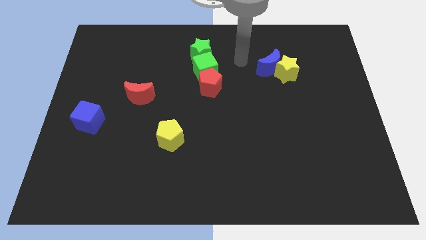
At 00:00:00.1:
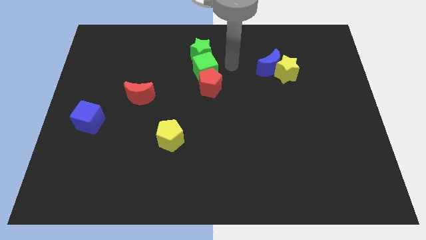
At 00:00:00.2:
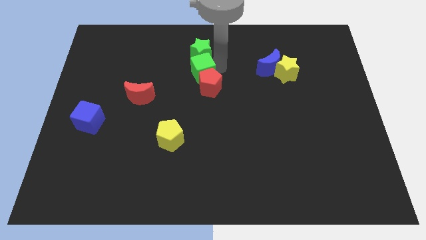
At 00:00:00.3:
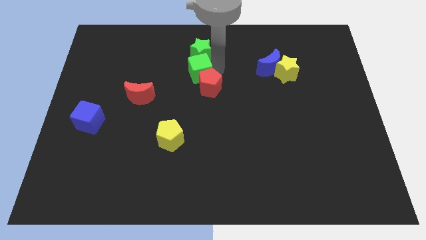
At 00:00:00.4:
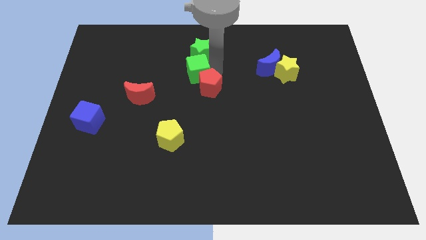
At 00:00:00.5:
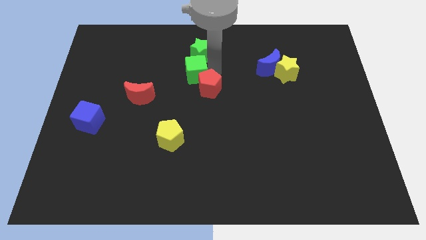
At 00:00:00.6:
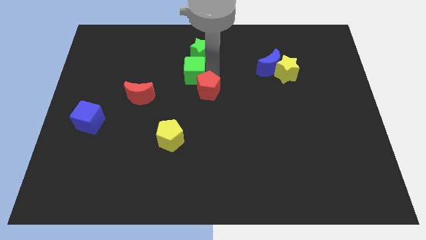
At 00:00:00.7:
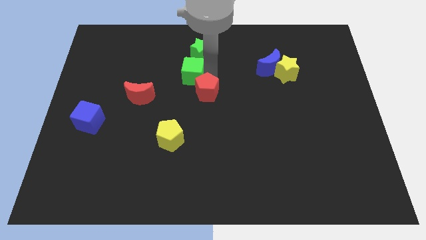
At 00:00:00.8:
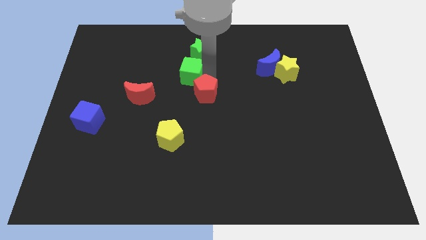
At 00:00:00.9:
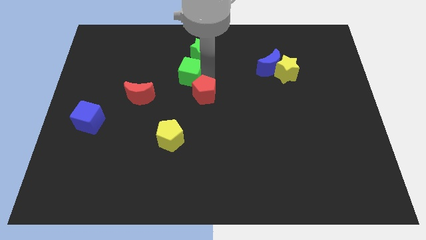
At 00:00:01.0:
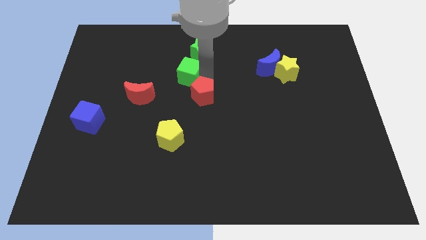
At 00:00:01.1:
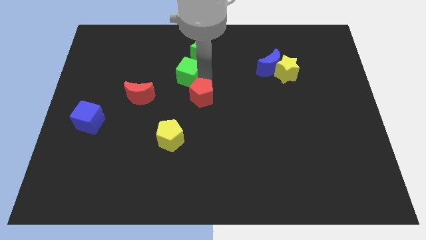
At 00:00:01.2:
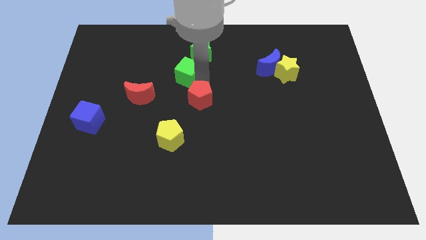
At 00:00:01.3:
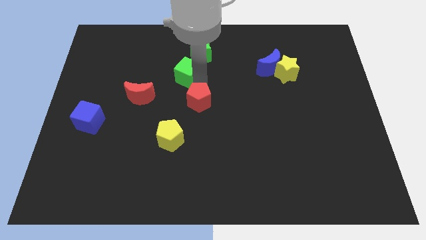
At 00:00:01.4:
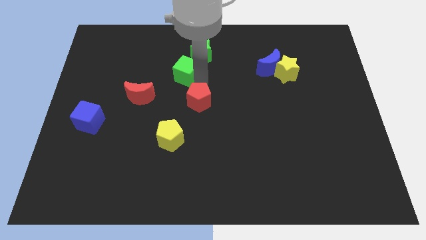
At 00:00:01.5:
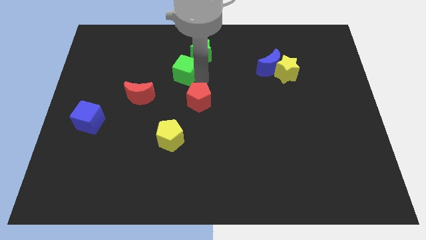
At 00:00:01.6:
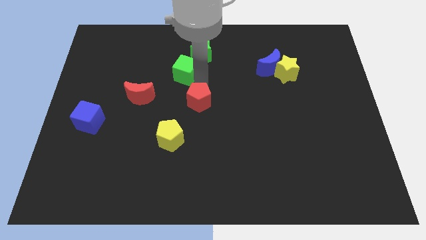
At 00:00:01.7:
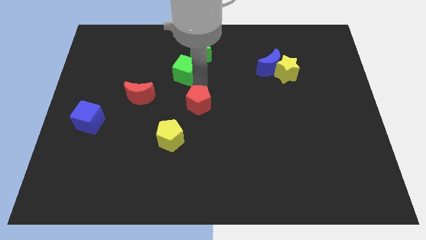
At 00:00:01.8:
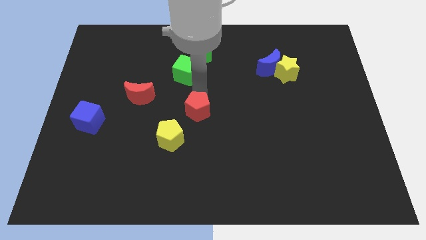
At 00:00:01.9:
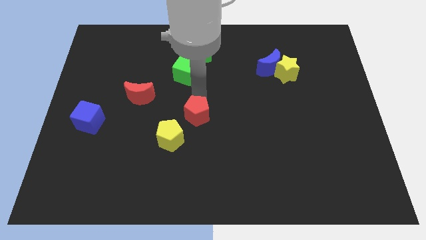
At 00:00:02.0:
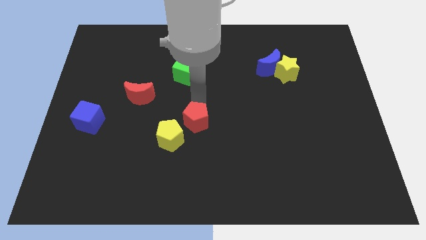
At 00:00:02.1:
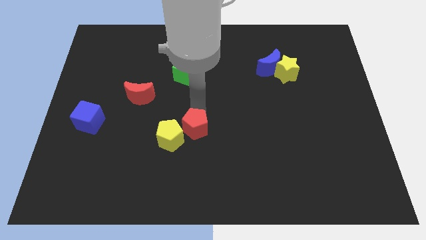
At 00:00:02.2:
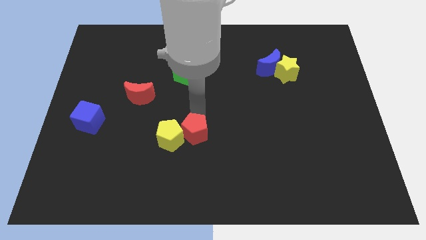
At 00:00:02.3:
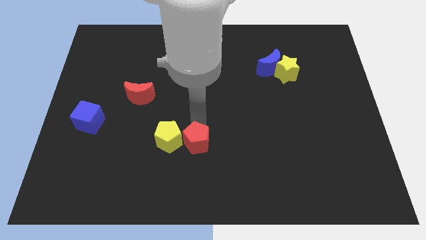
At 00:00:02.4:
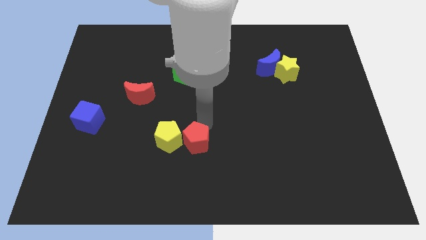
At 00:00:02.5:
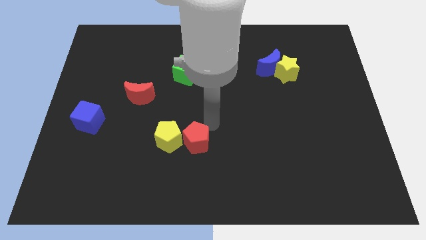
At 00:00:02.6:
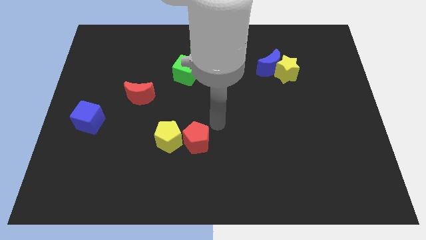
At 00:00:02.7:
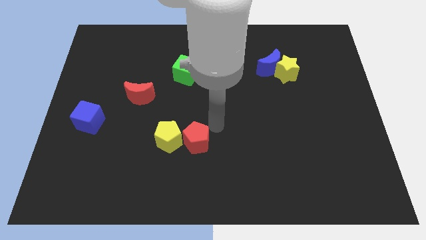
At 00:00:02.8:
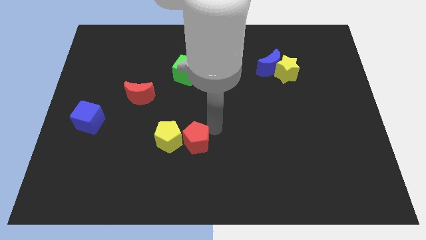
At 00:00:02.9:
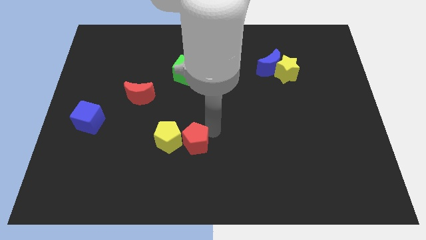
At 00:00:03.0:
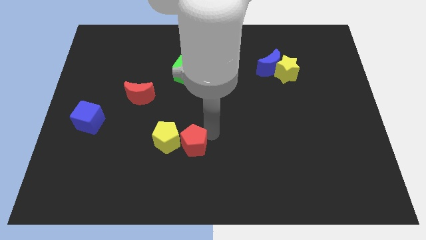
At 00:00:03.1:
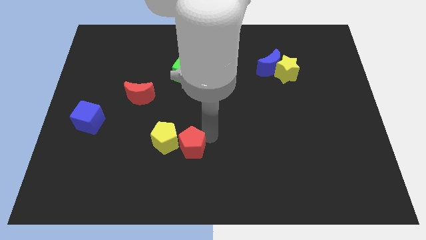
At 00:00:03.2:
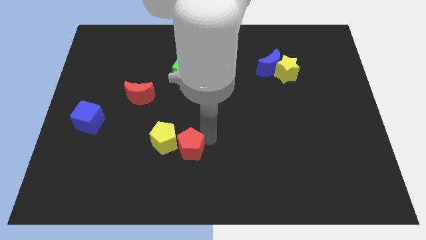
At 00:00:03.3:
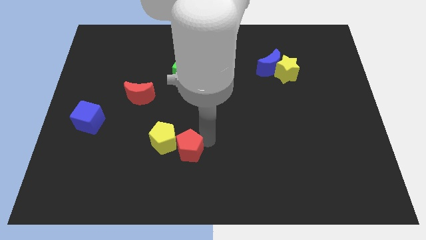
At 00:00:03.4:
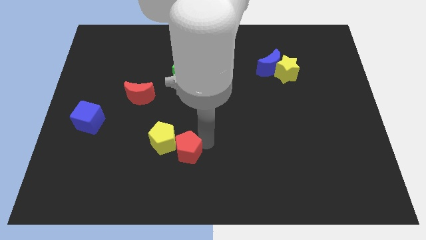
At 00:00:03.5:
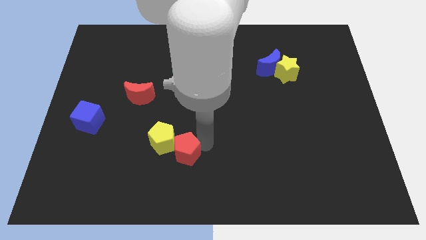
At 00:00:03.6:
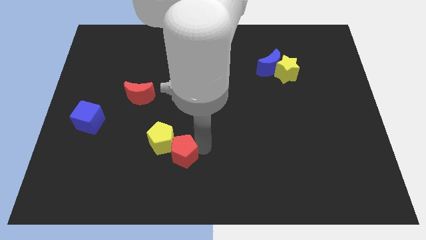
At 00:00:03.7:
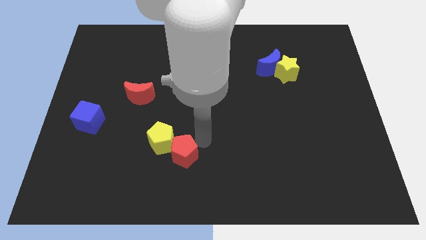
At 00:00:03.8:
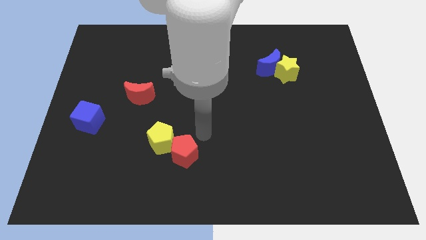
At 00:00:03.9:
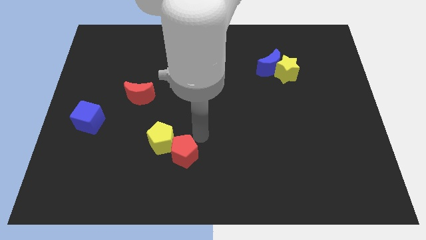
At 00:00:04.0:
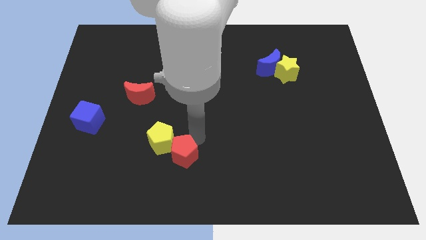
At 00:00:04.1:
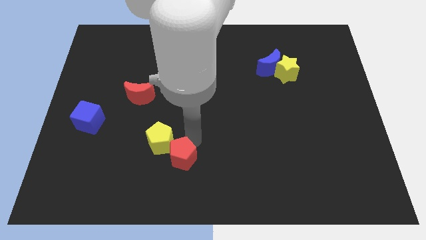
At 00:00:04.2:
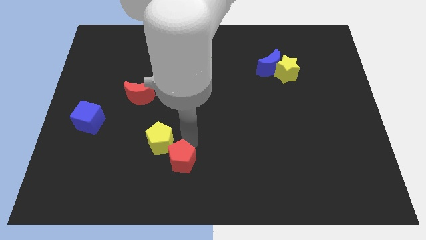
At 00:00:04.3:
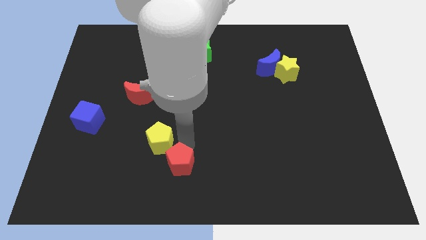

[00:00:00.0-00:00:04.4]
put the red pentagon to the bottom of the yellow pentagon

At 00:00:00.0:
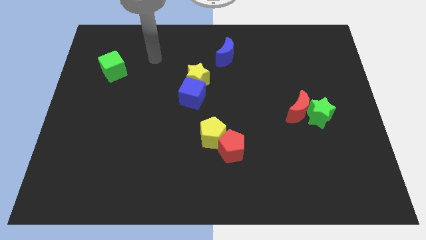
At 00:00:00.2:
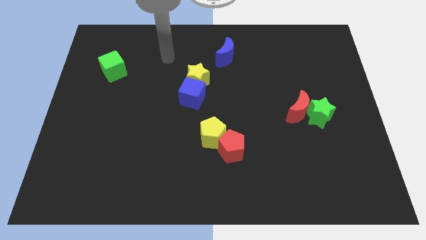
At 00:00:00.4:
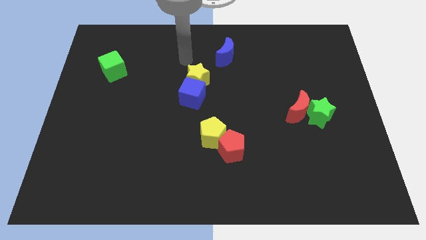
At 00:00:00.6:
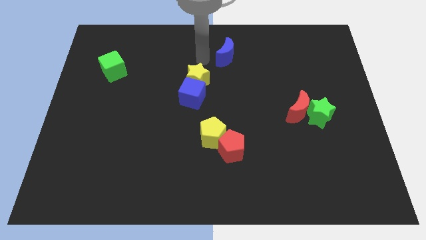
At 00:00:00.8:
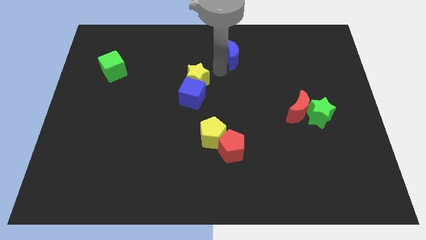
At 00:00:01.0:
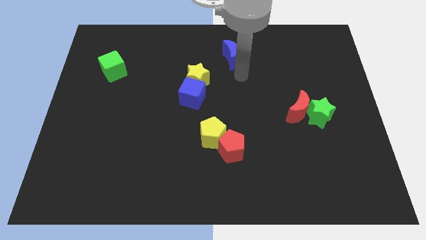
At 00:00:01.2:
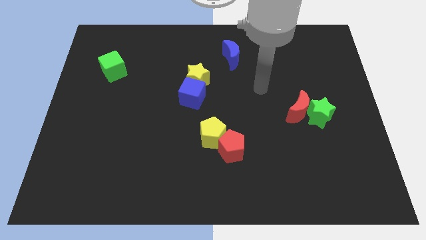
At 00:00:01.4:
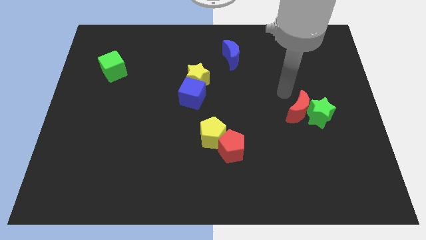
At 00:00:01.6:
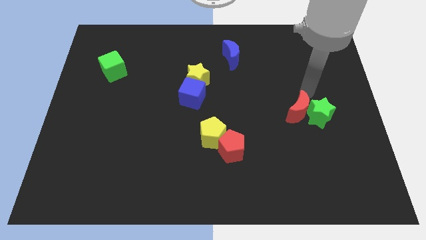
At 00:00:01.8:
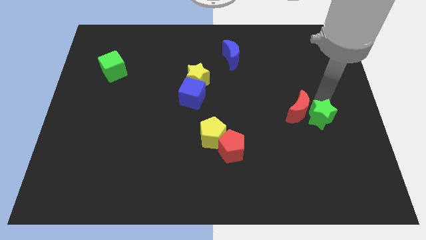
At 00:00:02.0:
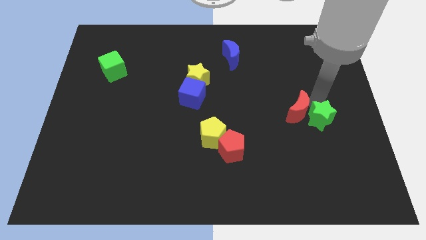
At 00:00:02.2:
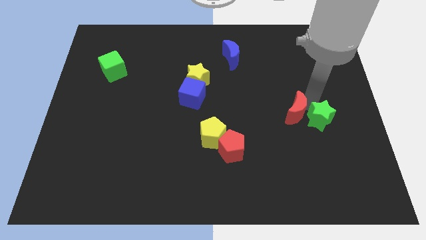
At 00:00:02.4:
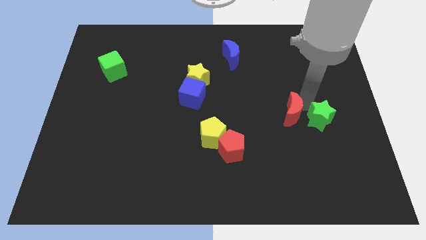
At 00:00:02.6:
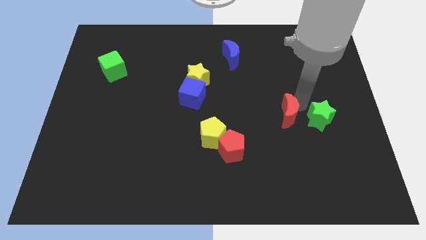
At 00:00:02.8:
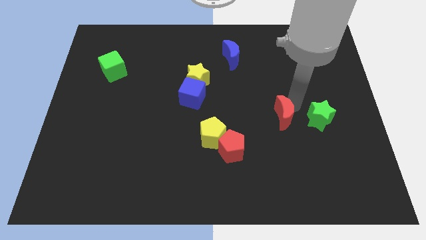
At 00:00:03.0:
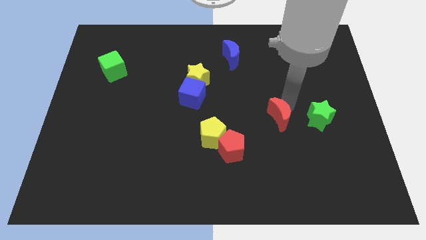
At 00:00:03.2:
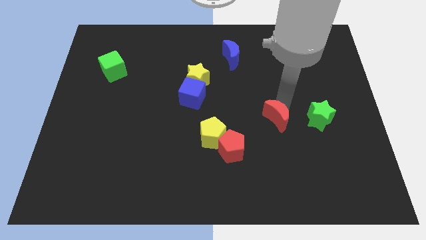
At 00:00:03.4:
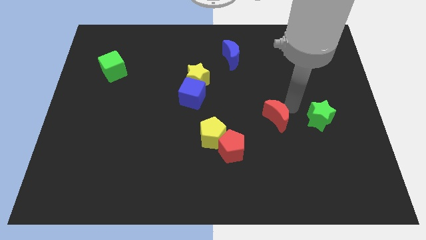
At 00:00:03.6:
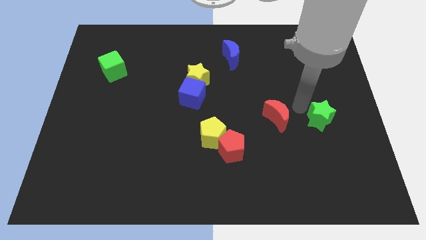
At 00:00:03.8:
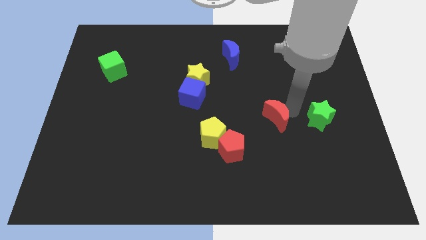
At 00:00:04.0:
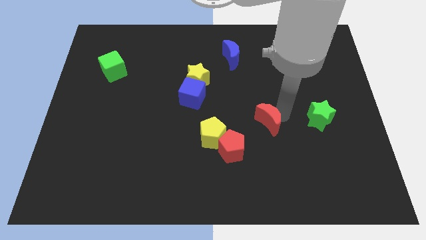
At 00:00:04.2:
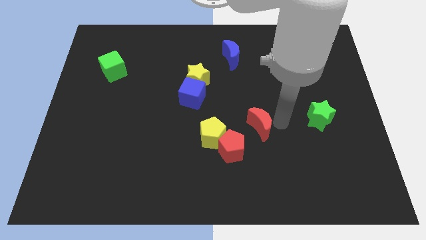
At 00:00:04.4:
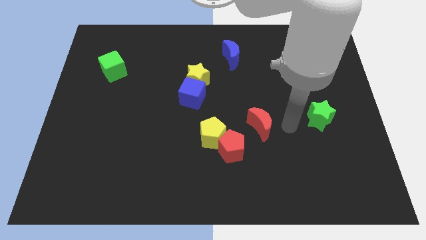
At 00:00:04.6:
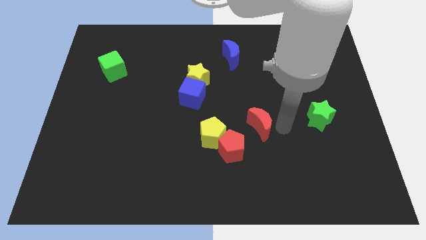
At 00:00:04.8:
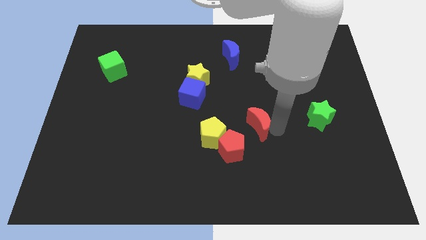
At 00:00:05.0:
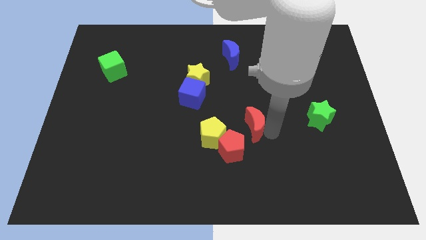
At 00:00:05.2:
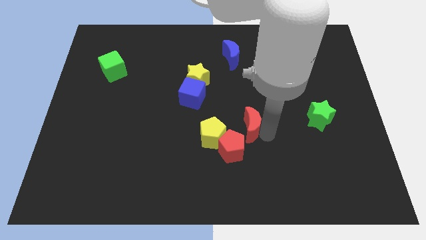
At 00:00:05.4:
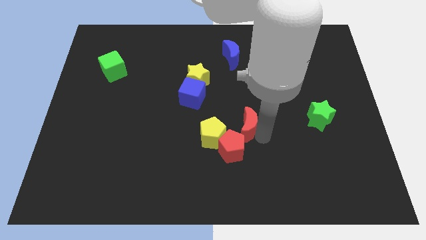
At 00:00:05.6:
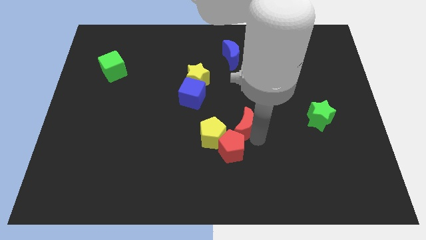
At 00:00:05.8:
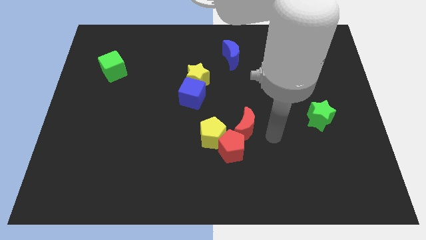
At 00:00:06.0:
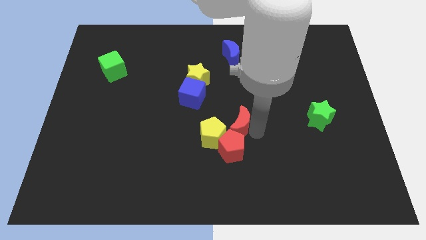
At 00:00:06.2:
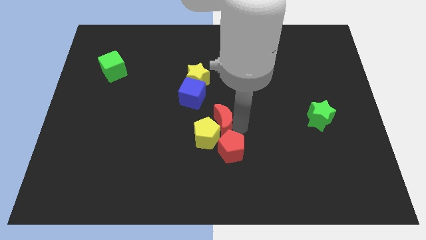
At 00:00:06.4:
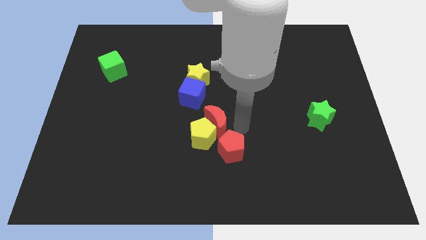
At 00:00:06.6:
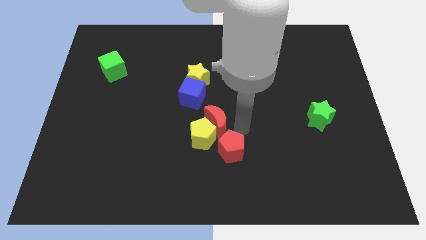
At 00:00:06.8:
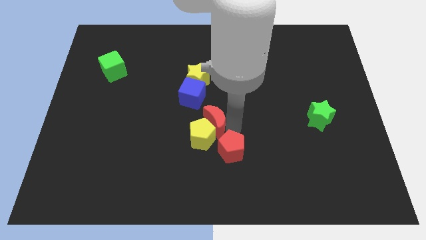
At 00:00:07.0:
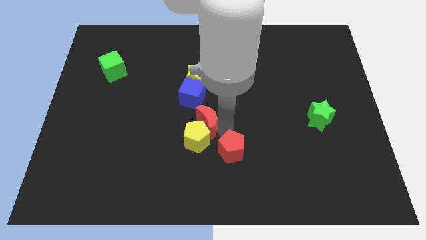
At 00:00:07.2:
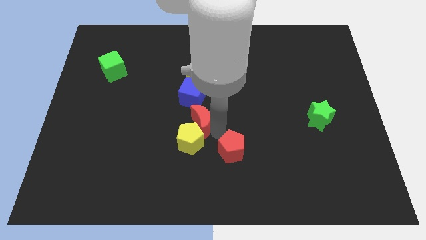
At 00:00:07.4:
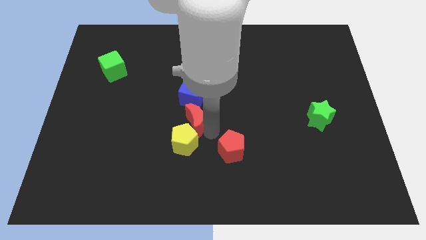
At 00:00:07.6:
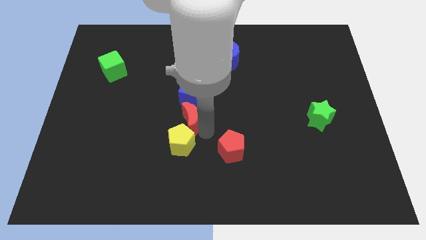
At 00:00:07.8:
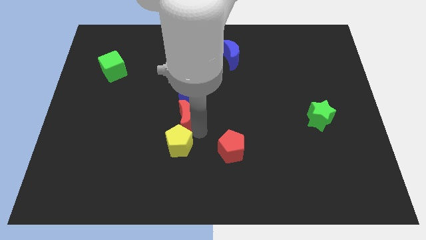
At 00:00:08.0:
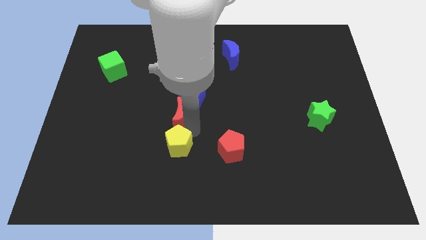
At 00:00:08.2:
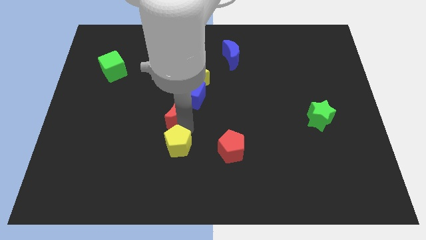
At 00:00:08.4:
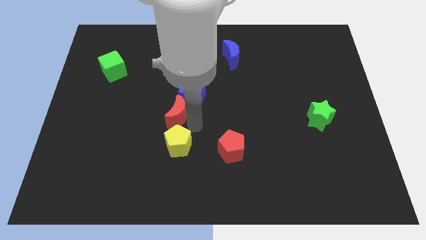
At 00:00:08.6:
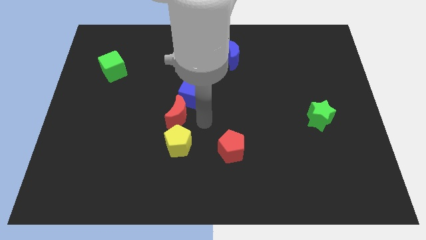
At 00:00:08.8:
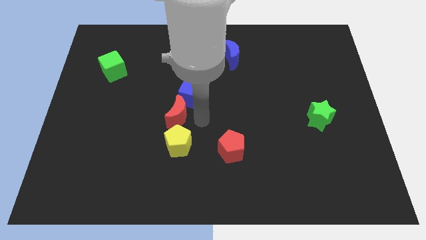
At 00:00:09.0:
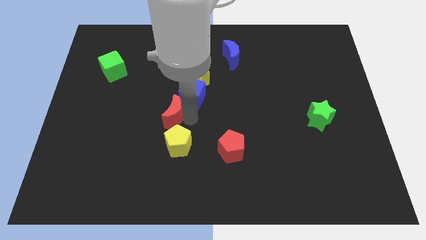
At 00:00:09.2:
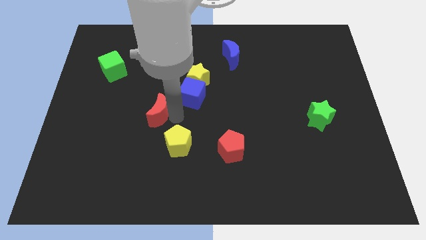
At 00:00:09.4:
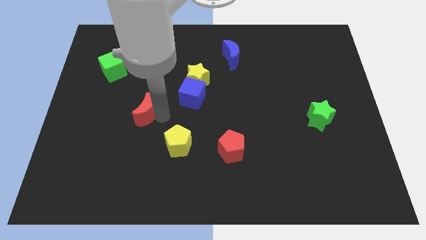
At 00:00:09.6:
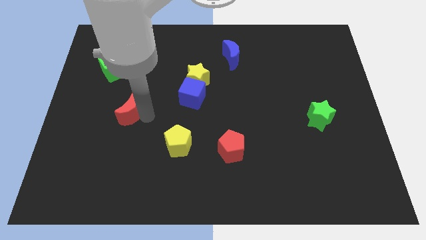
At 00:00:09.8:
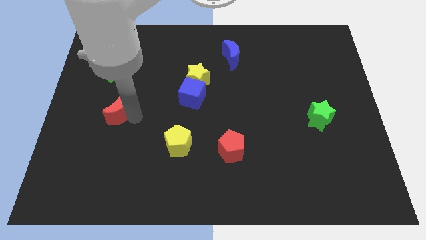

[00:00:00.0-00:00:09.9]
push the red moon below the green cube
